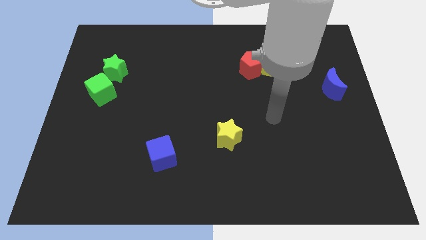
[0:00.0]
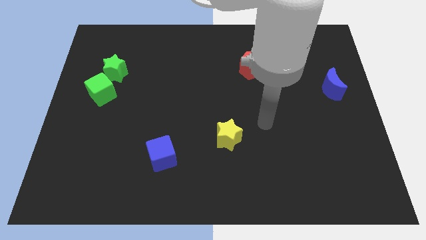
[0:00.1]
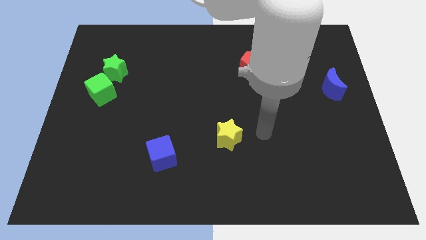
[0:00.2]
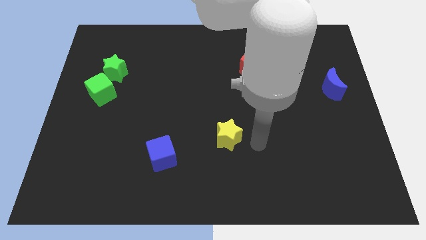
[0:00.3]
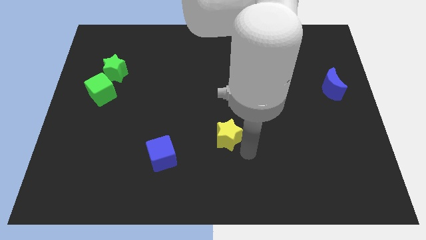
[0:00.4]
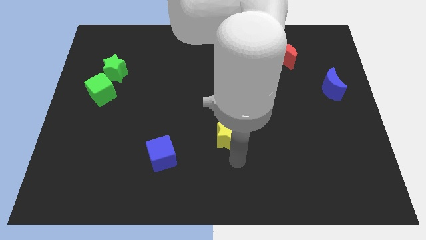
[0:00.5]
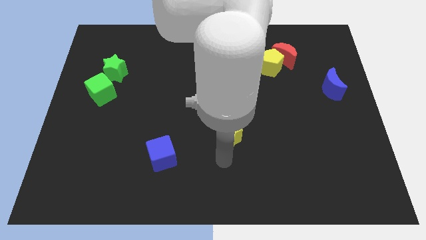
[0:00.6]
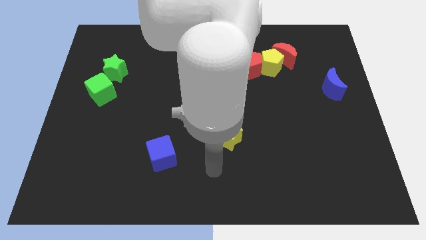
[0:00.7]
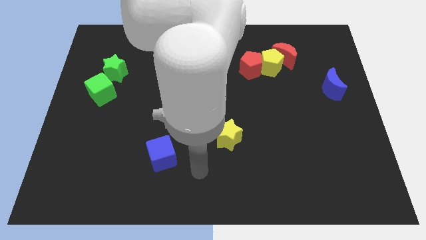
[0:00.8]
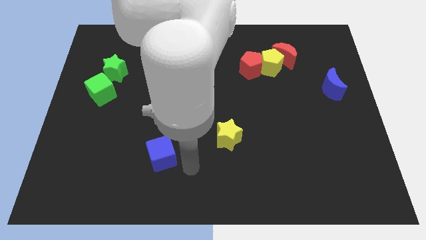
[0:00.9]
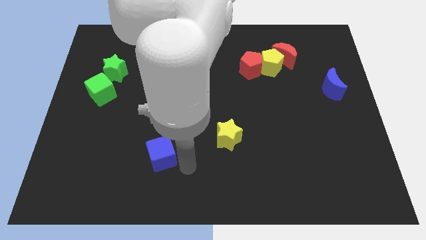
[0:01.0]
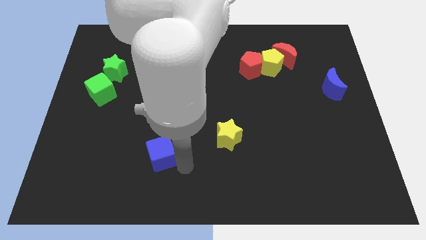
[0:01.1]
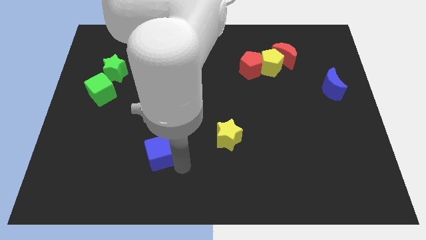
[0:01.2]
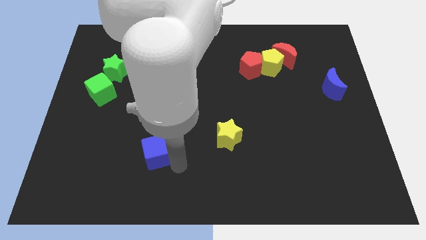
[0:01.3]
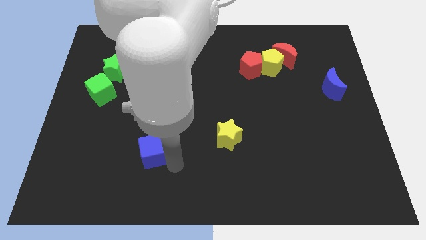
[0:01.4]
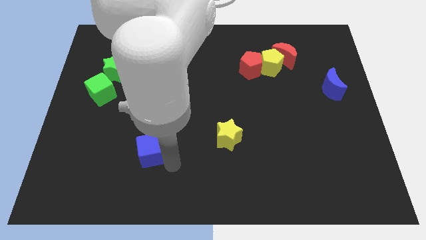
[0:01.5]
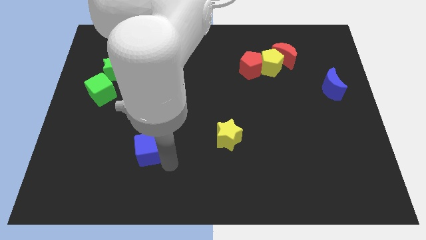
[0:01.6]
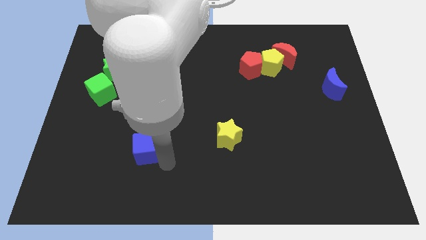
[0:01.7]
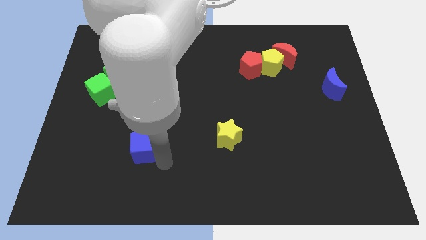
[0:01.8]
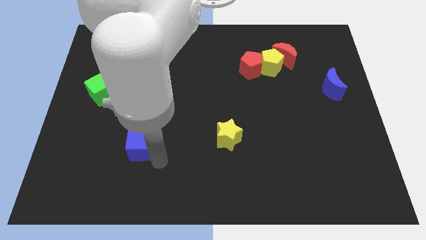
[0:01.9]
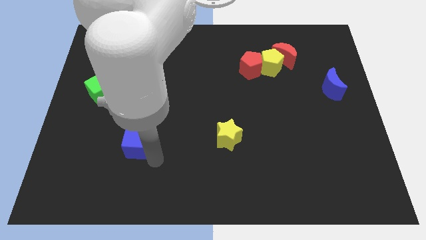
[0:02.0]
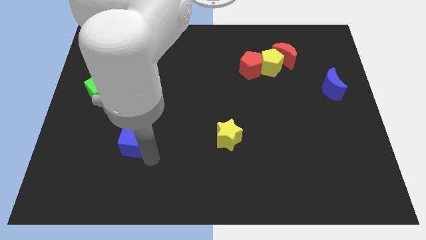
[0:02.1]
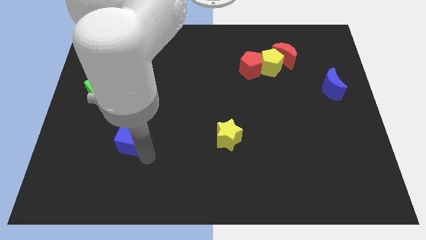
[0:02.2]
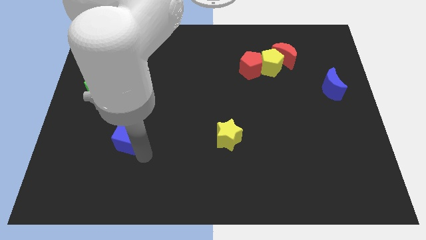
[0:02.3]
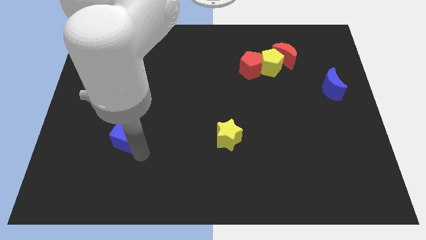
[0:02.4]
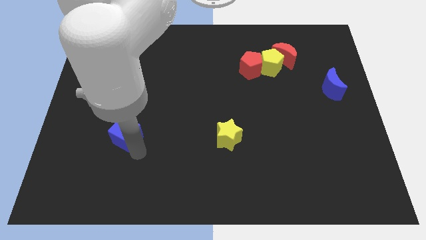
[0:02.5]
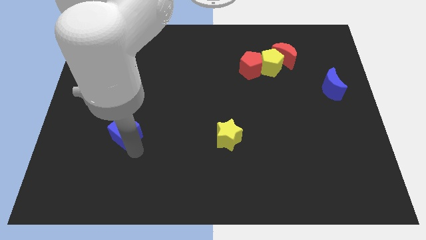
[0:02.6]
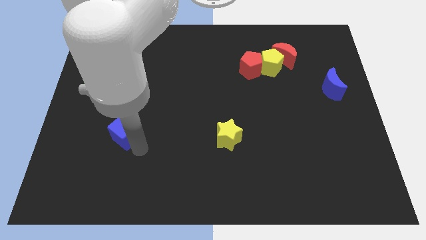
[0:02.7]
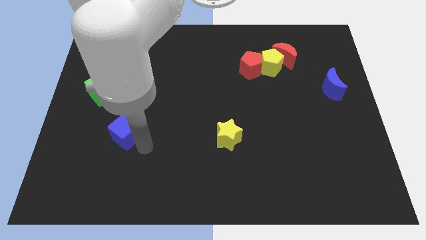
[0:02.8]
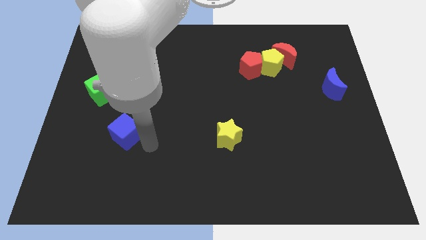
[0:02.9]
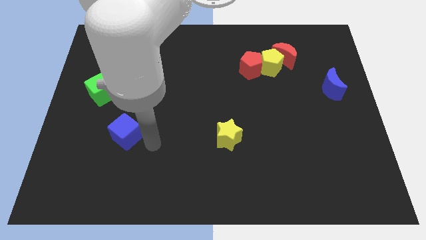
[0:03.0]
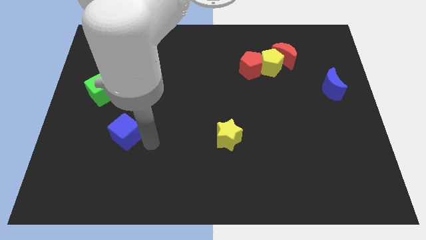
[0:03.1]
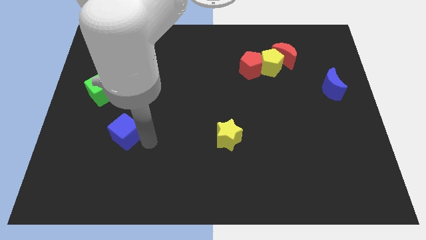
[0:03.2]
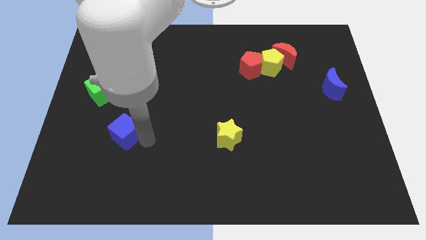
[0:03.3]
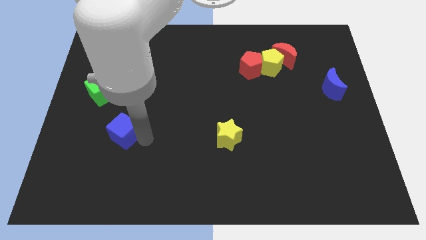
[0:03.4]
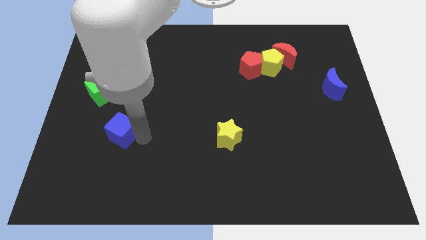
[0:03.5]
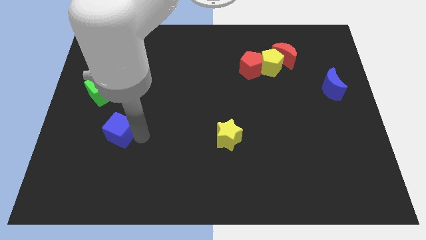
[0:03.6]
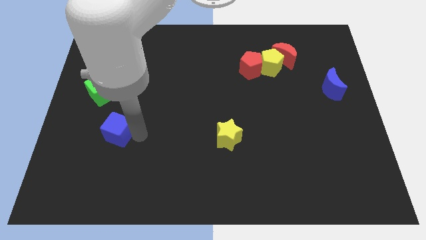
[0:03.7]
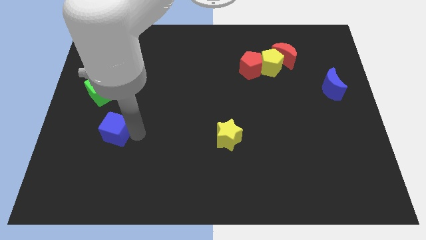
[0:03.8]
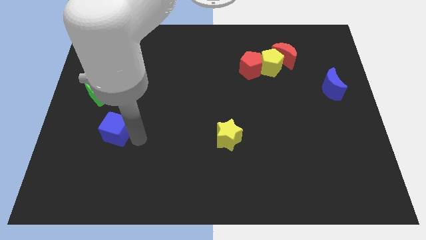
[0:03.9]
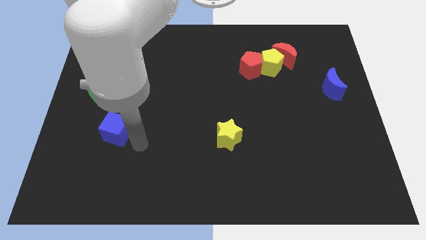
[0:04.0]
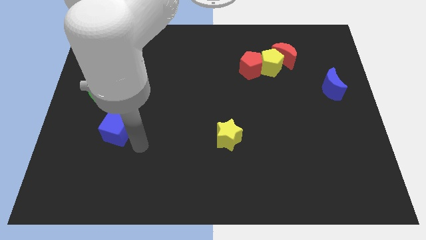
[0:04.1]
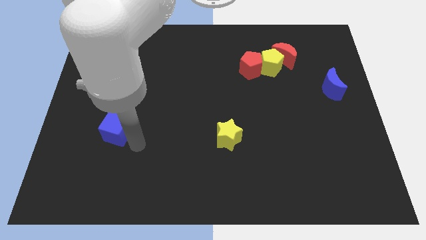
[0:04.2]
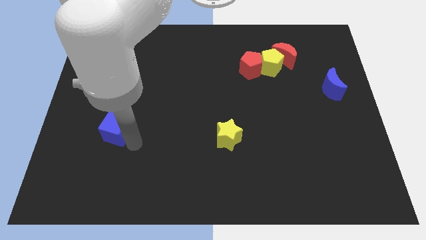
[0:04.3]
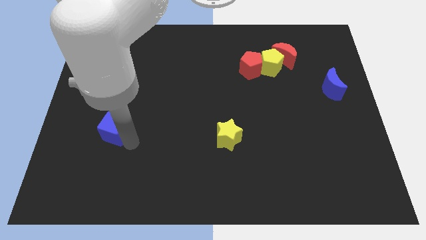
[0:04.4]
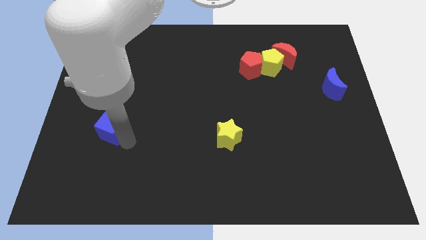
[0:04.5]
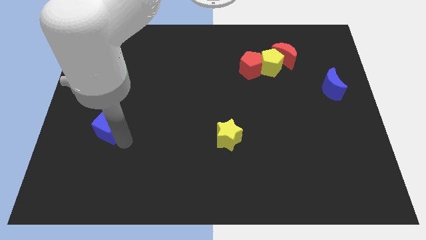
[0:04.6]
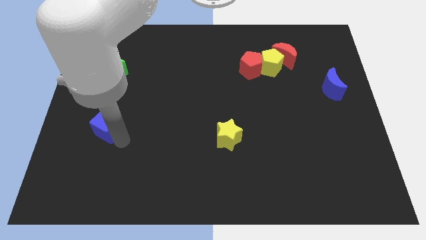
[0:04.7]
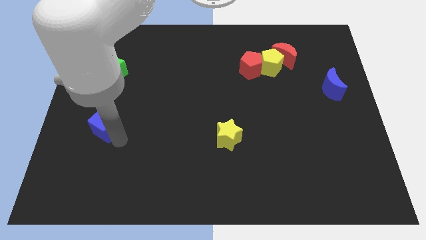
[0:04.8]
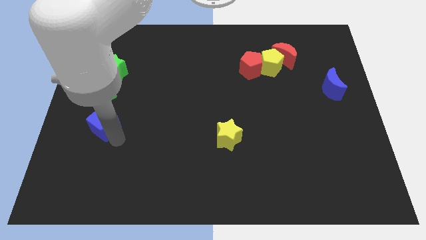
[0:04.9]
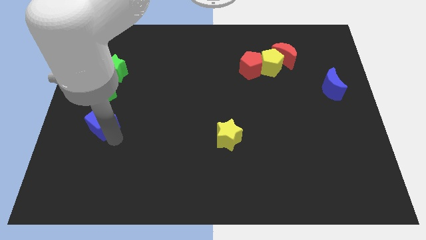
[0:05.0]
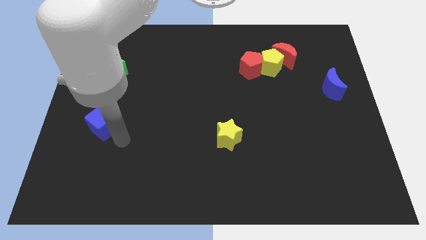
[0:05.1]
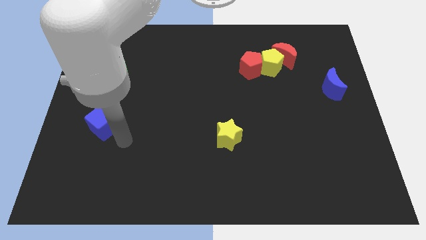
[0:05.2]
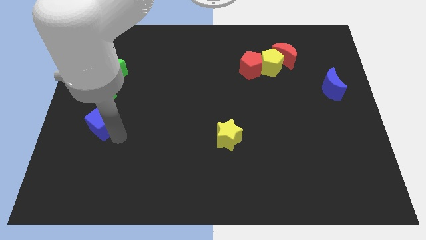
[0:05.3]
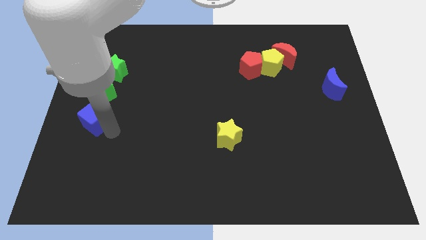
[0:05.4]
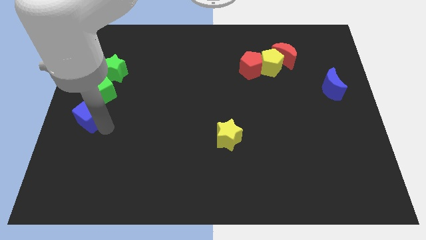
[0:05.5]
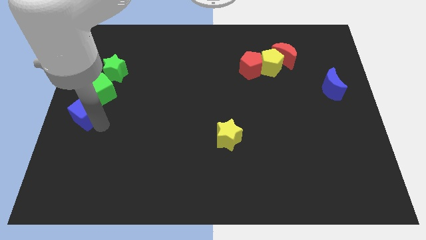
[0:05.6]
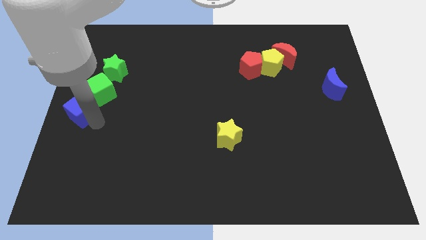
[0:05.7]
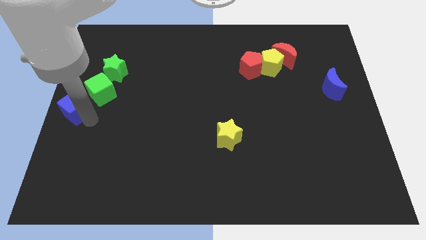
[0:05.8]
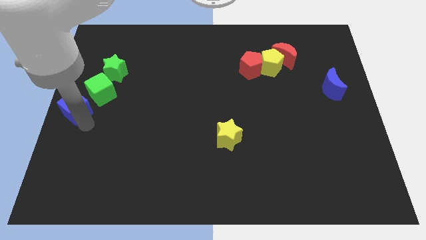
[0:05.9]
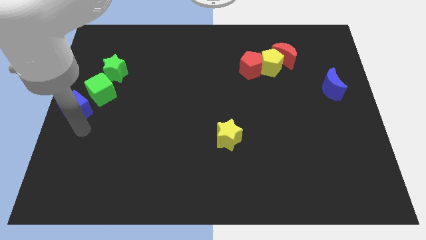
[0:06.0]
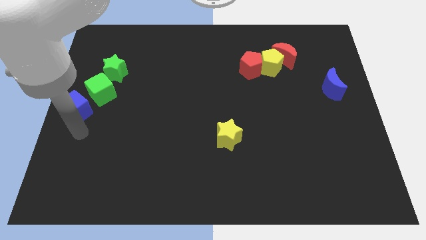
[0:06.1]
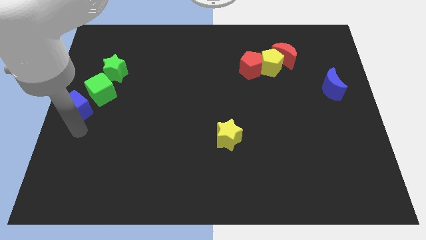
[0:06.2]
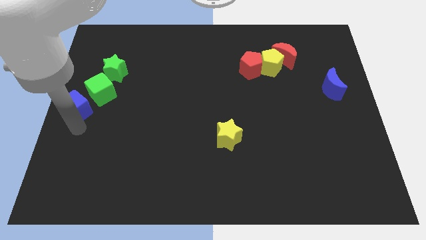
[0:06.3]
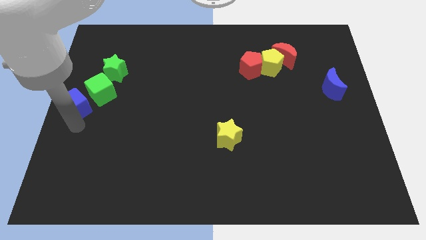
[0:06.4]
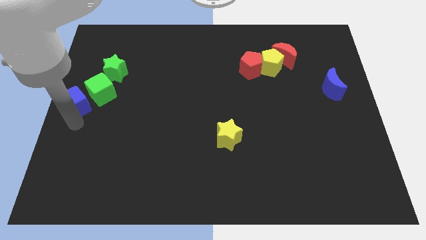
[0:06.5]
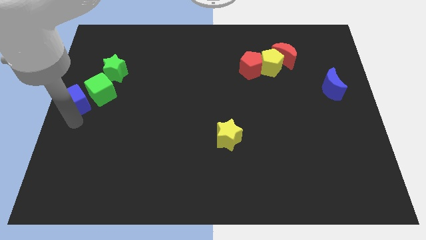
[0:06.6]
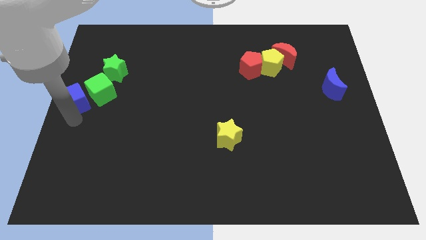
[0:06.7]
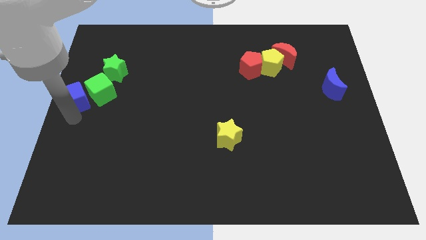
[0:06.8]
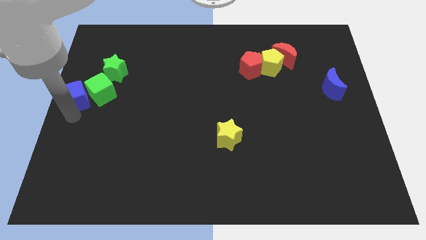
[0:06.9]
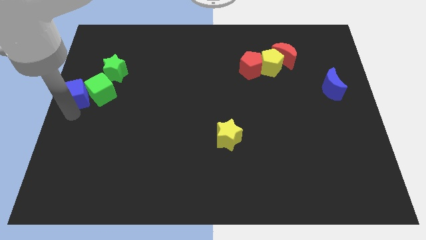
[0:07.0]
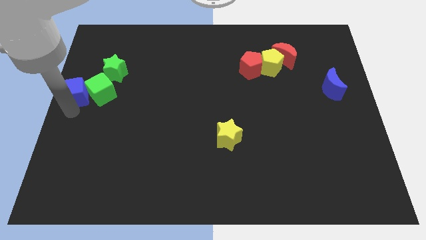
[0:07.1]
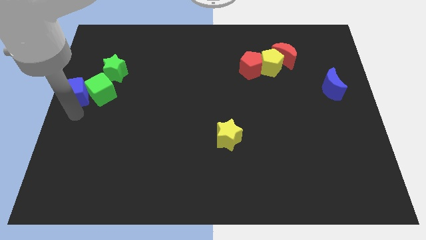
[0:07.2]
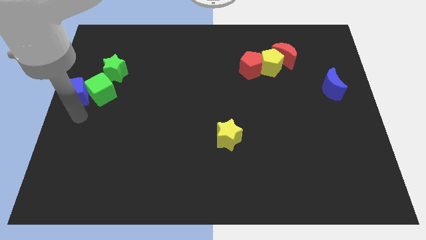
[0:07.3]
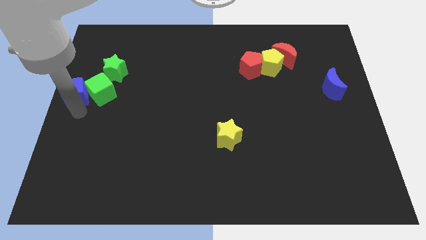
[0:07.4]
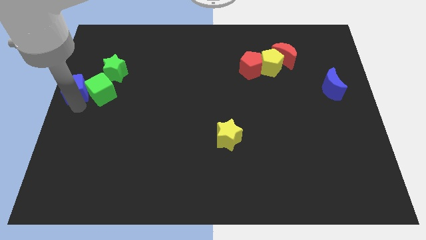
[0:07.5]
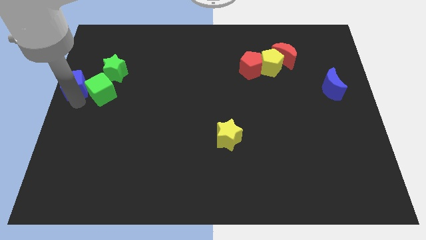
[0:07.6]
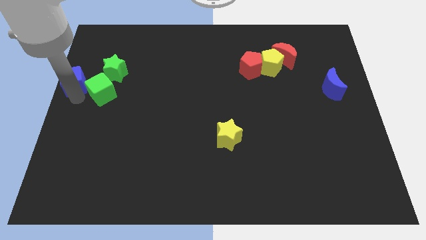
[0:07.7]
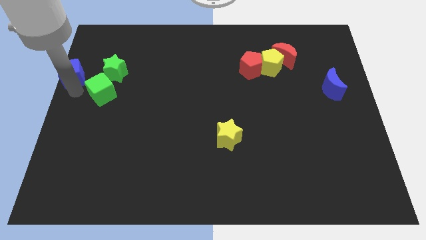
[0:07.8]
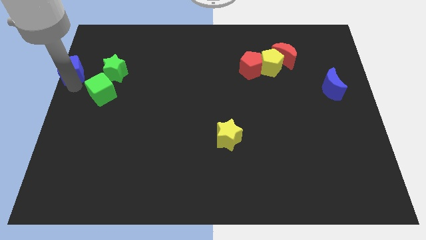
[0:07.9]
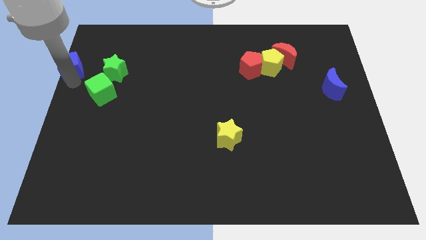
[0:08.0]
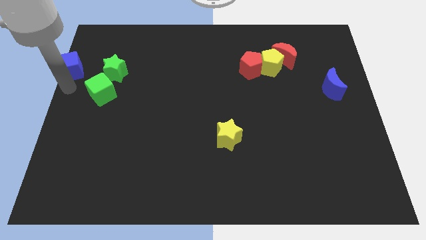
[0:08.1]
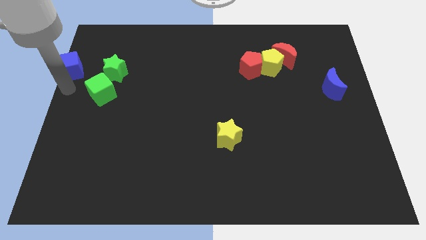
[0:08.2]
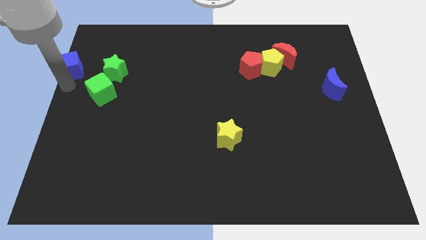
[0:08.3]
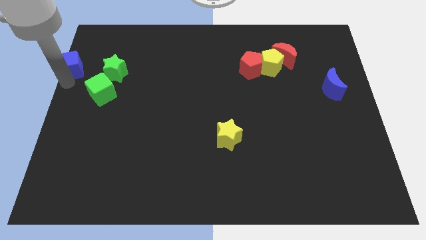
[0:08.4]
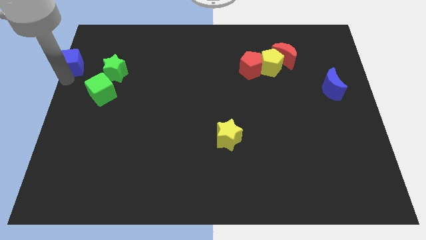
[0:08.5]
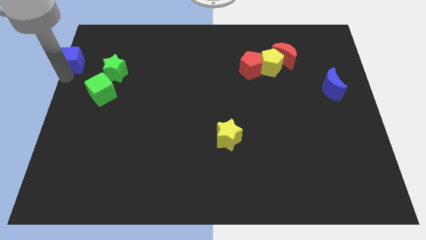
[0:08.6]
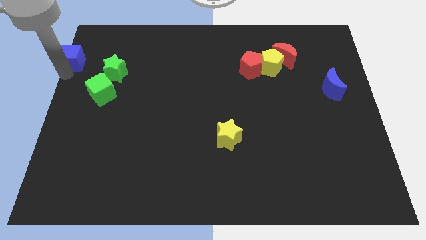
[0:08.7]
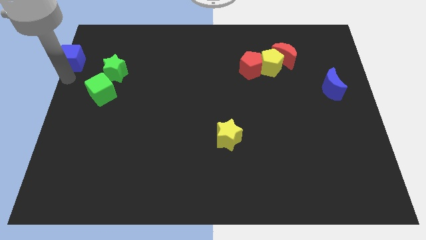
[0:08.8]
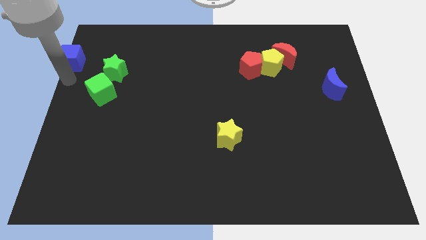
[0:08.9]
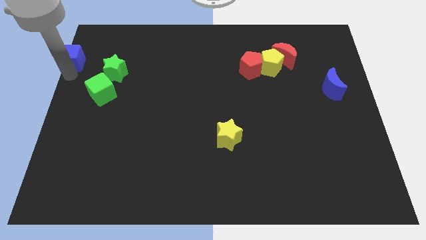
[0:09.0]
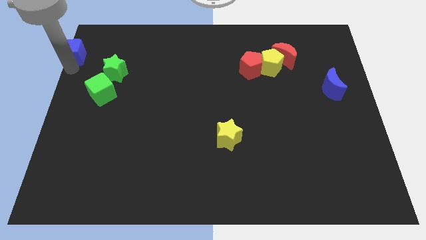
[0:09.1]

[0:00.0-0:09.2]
put the blue cube to the top left corner
